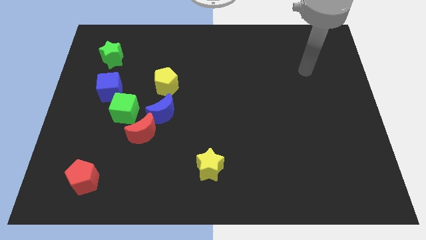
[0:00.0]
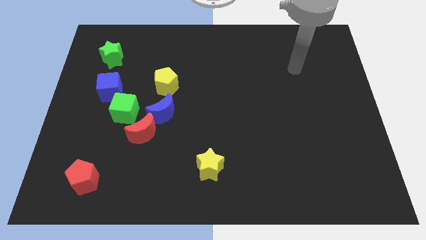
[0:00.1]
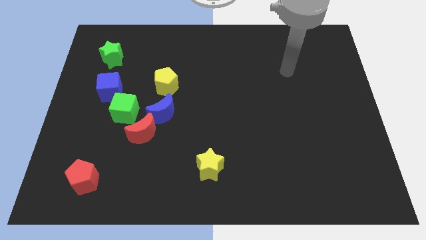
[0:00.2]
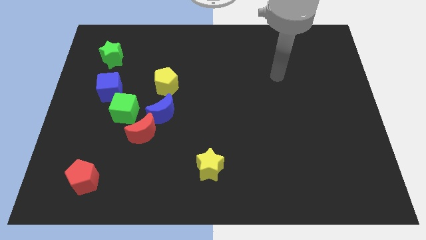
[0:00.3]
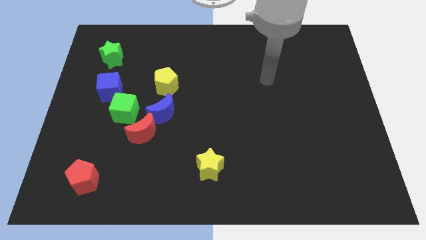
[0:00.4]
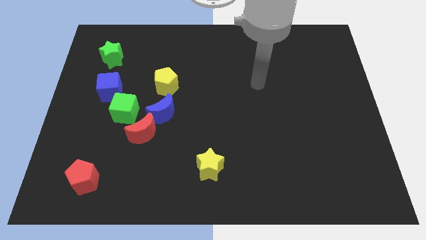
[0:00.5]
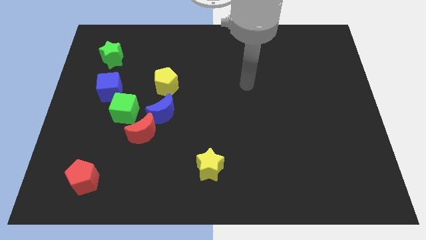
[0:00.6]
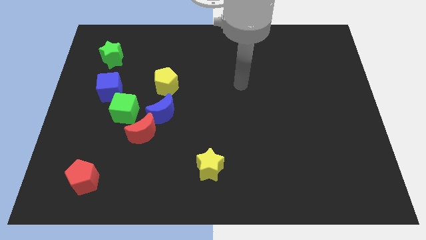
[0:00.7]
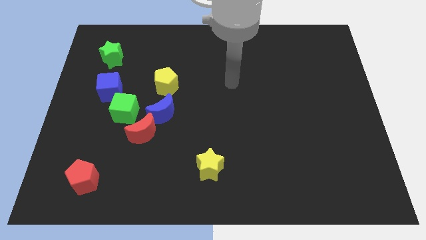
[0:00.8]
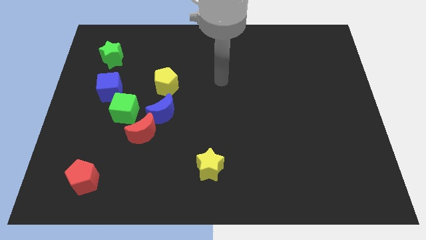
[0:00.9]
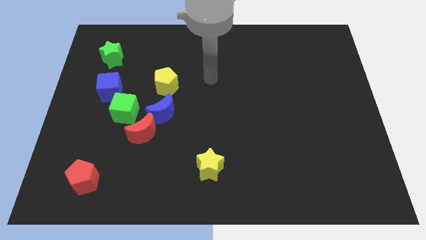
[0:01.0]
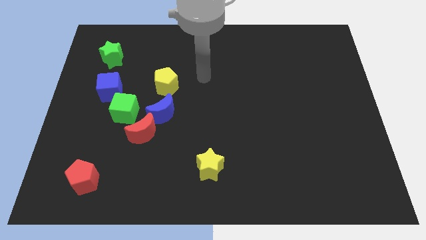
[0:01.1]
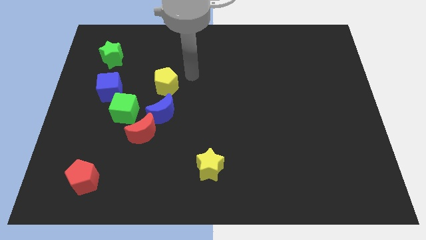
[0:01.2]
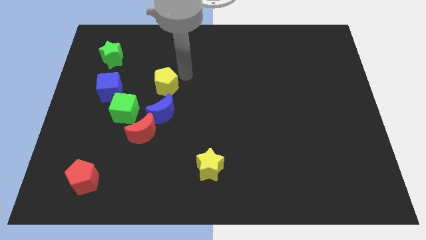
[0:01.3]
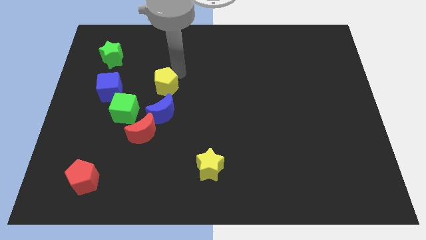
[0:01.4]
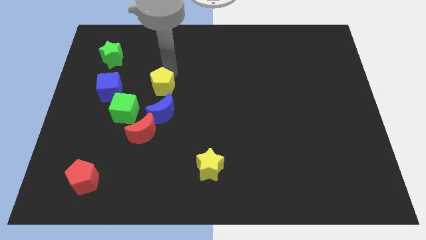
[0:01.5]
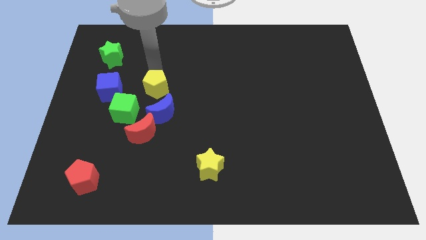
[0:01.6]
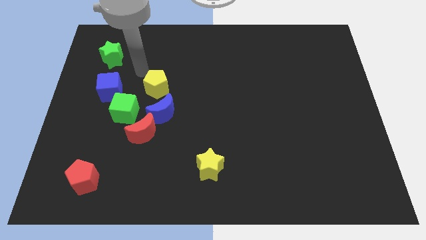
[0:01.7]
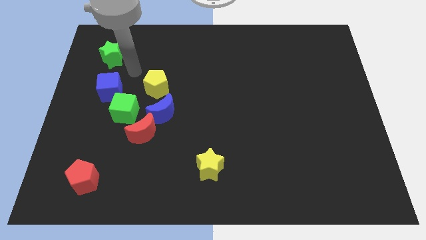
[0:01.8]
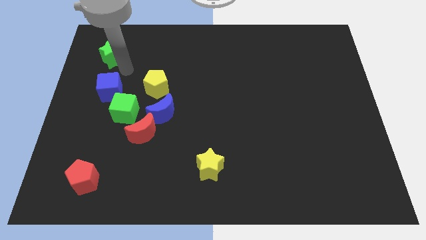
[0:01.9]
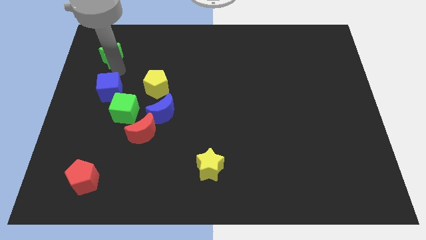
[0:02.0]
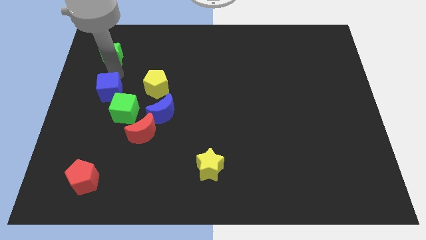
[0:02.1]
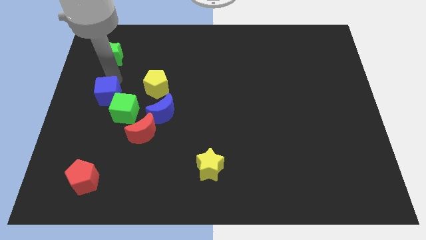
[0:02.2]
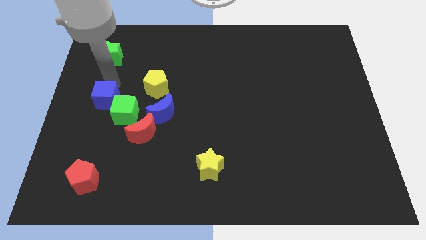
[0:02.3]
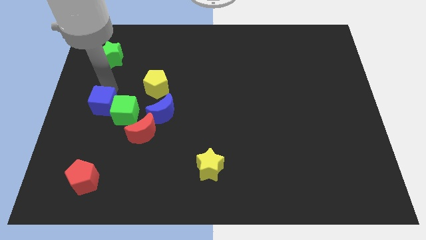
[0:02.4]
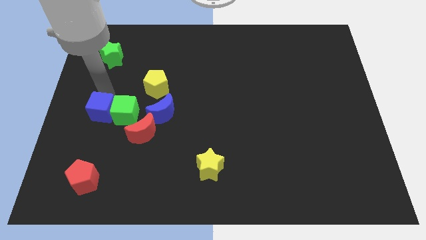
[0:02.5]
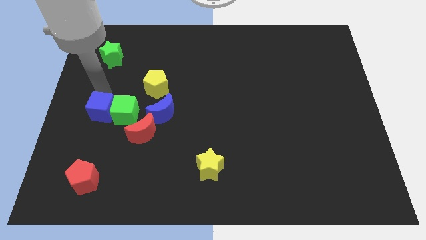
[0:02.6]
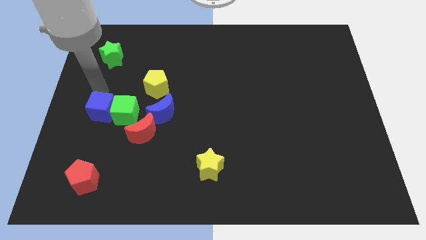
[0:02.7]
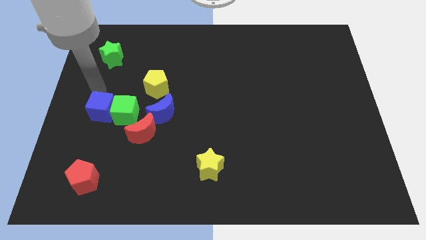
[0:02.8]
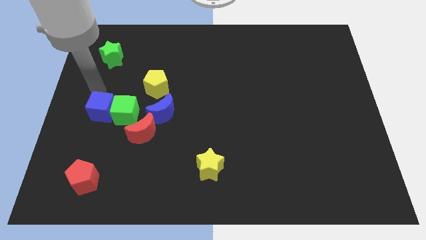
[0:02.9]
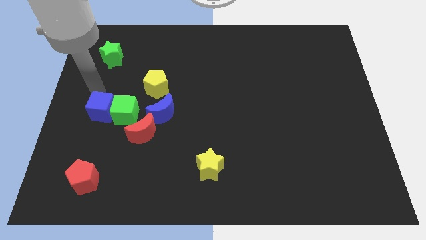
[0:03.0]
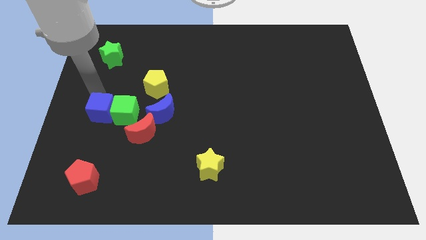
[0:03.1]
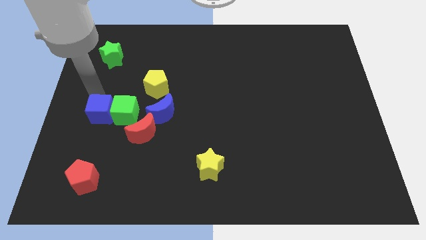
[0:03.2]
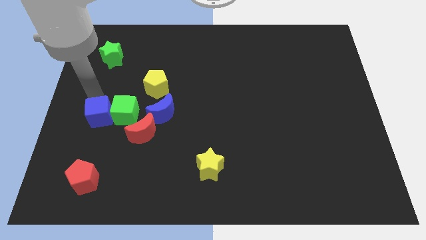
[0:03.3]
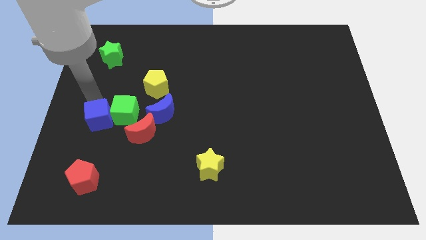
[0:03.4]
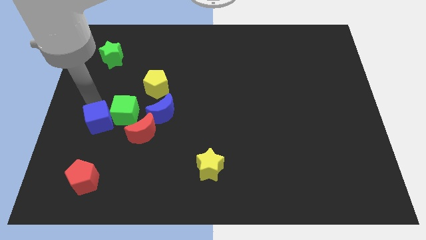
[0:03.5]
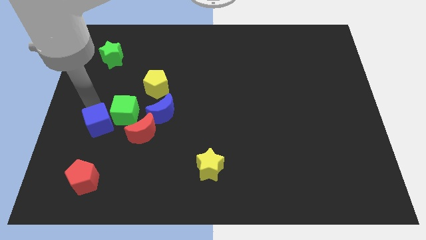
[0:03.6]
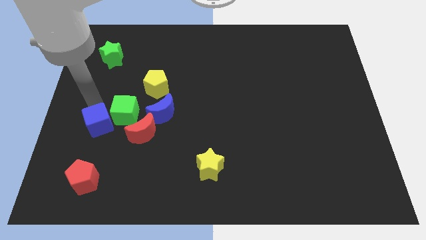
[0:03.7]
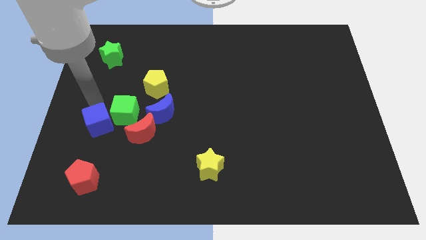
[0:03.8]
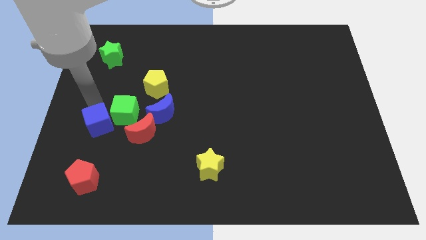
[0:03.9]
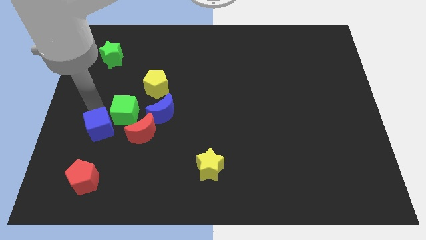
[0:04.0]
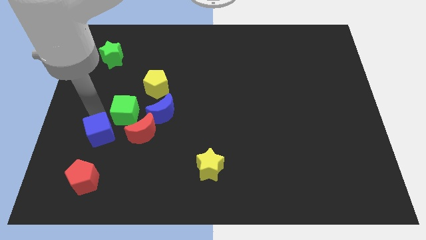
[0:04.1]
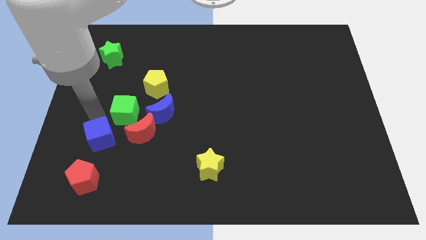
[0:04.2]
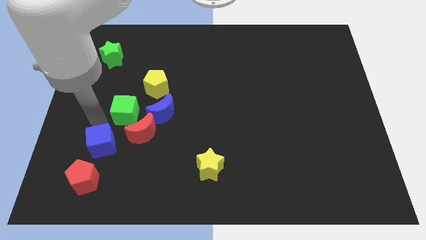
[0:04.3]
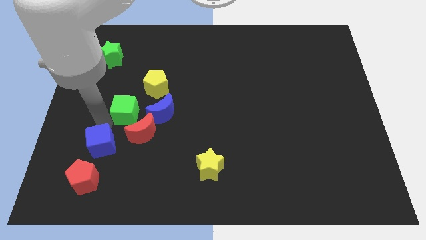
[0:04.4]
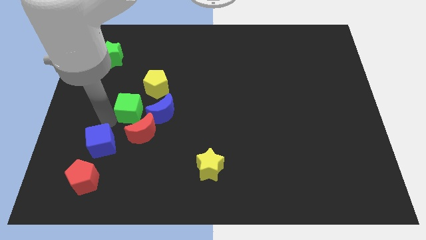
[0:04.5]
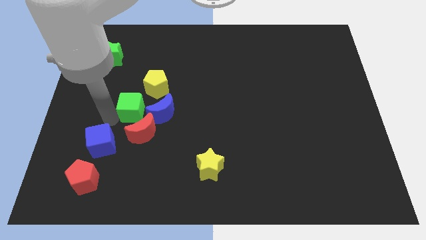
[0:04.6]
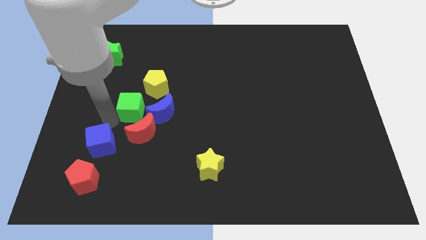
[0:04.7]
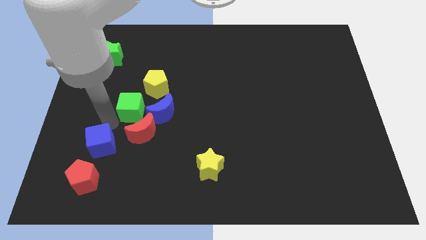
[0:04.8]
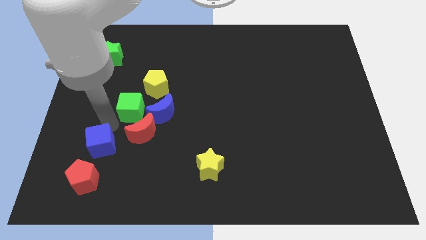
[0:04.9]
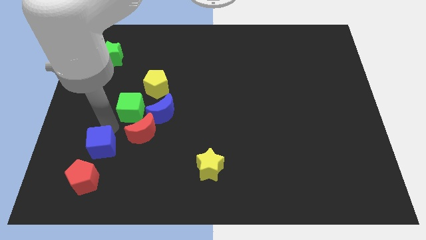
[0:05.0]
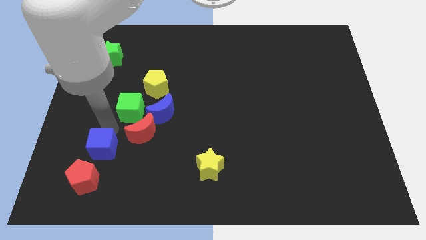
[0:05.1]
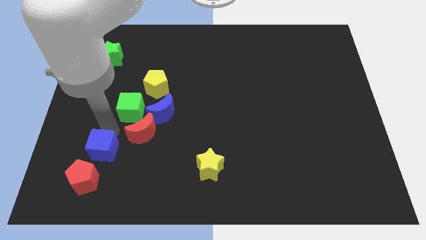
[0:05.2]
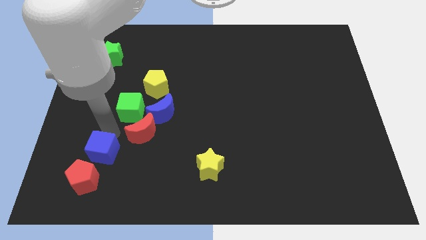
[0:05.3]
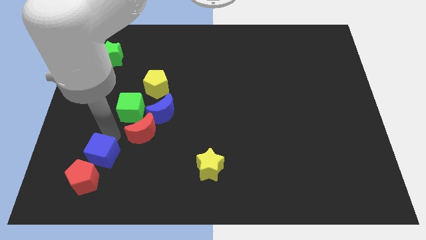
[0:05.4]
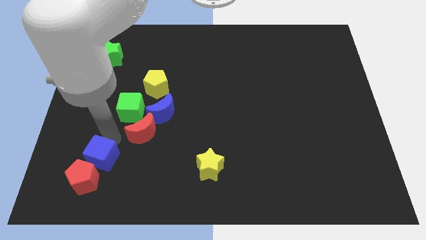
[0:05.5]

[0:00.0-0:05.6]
put the blue cube to the red pentagon
